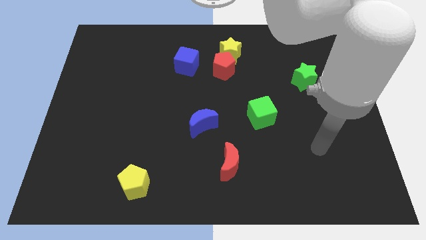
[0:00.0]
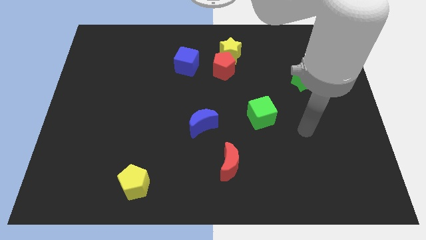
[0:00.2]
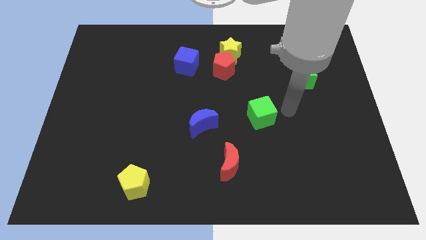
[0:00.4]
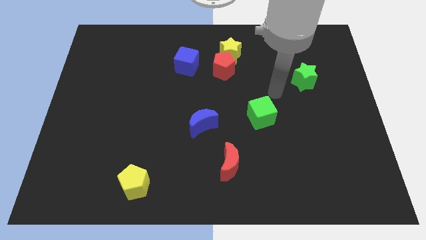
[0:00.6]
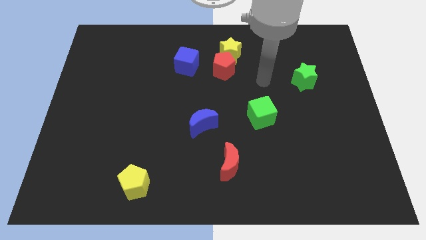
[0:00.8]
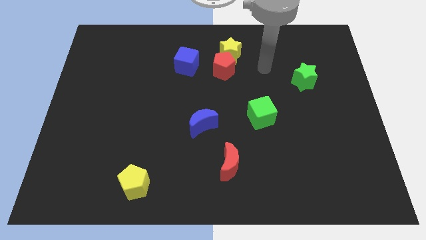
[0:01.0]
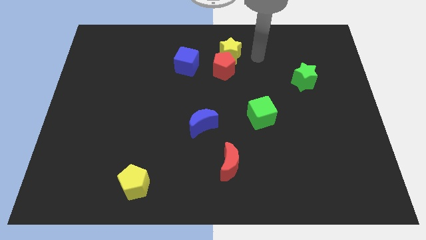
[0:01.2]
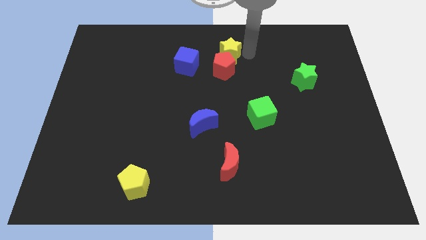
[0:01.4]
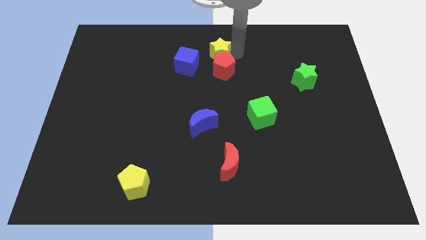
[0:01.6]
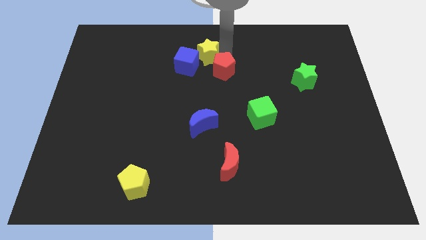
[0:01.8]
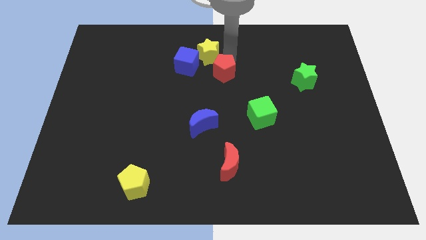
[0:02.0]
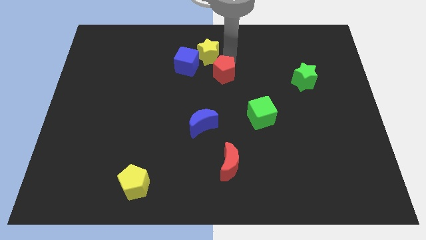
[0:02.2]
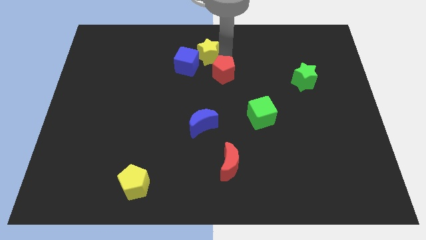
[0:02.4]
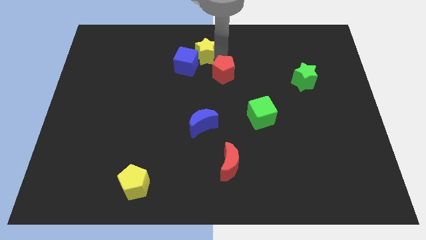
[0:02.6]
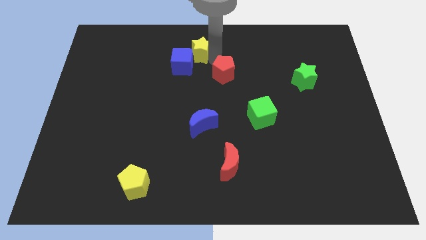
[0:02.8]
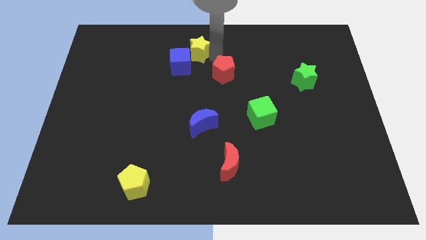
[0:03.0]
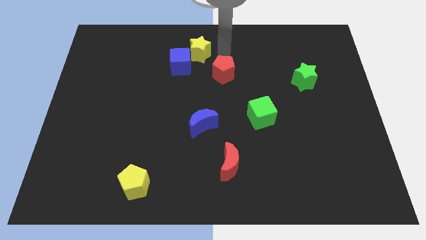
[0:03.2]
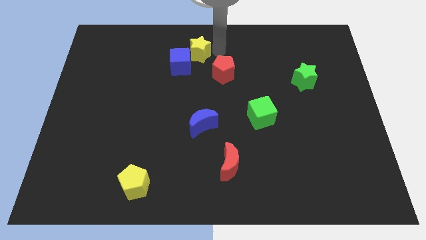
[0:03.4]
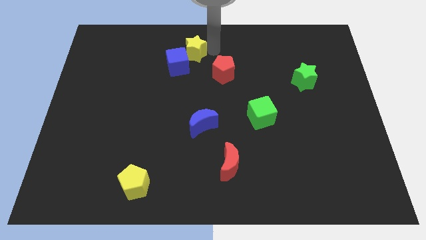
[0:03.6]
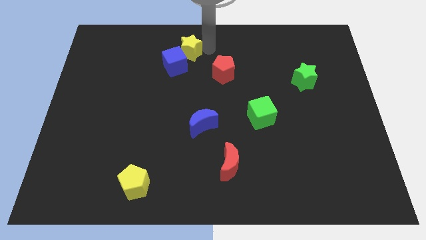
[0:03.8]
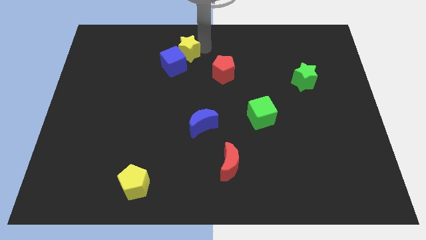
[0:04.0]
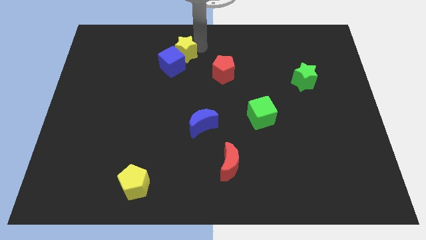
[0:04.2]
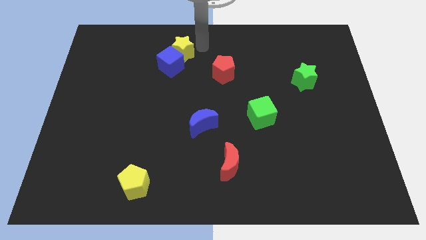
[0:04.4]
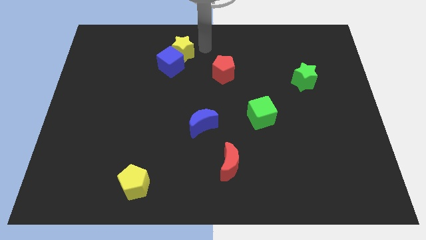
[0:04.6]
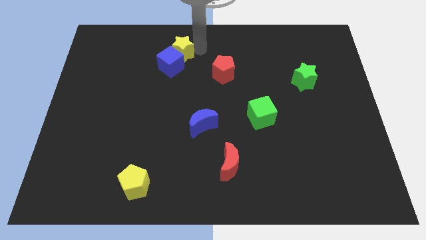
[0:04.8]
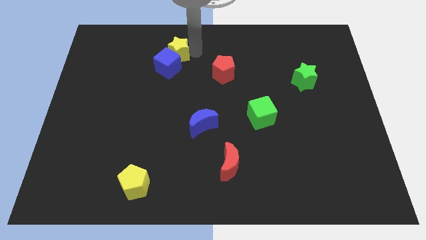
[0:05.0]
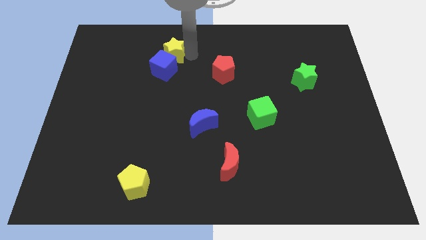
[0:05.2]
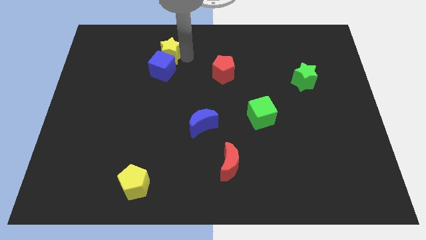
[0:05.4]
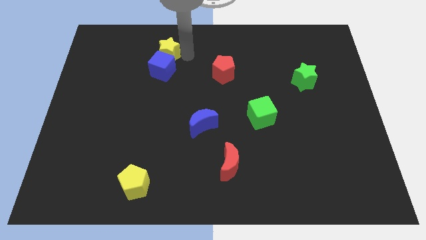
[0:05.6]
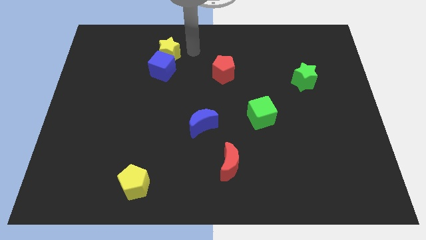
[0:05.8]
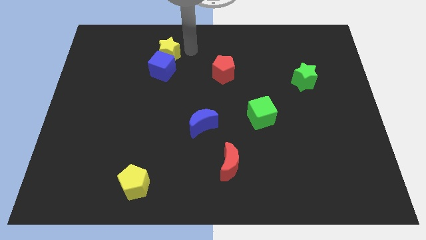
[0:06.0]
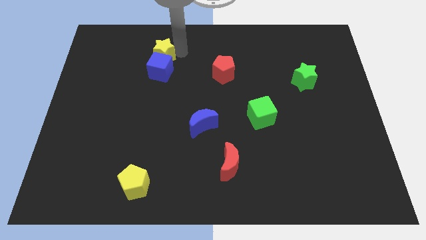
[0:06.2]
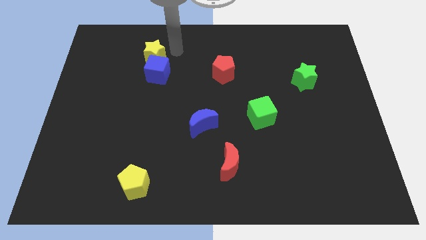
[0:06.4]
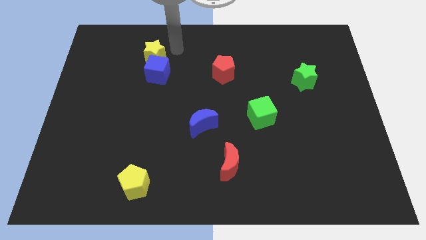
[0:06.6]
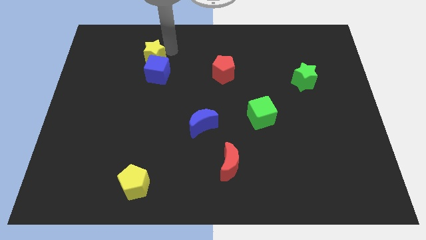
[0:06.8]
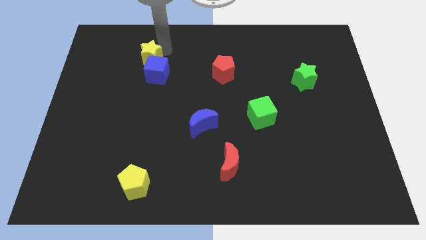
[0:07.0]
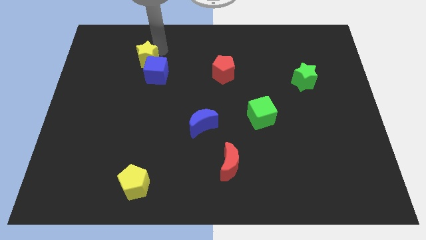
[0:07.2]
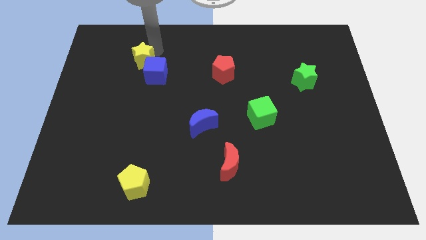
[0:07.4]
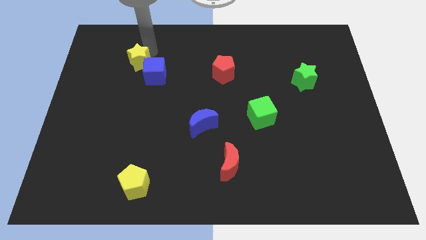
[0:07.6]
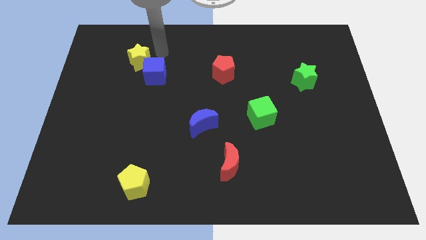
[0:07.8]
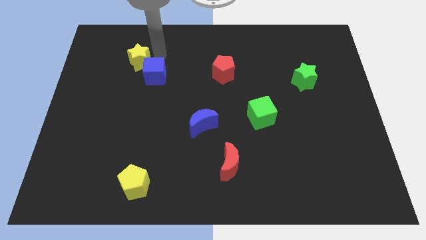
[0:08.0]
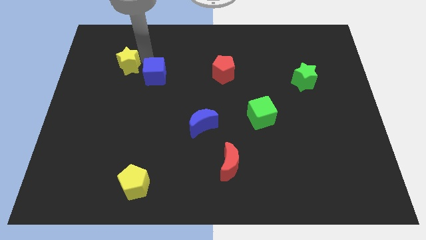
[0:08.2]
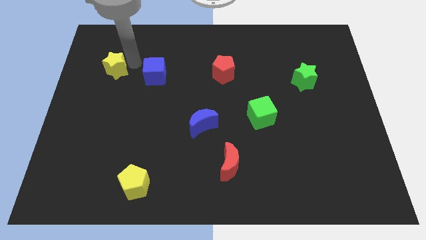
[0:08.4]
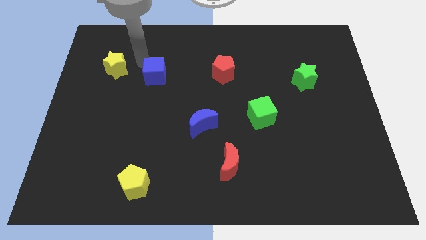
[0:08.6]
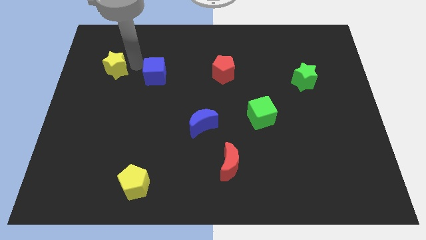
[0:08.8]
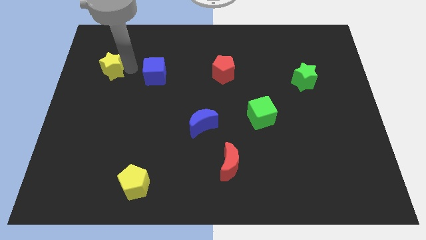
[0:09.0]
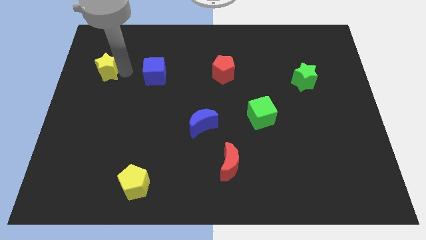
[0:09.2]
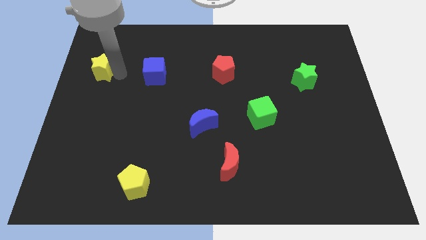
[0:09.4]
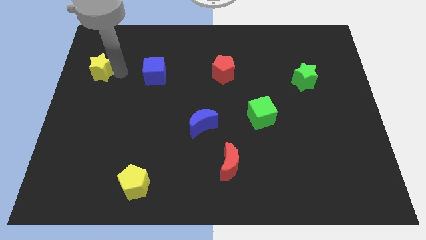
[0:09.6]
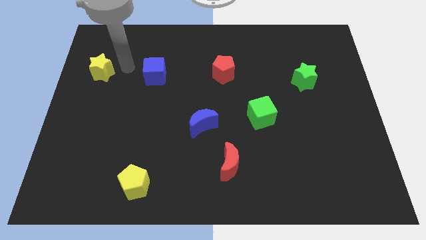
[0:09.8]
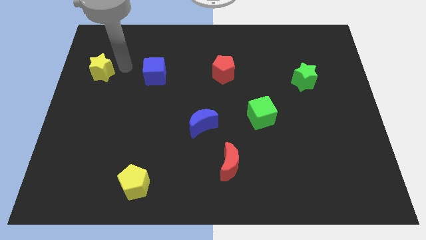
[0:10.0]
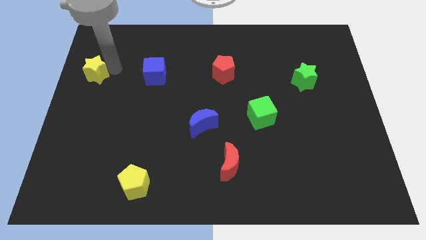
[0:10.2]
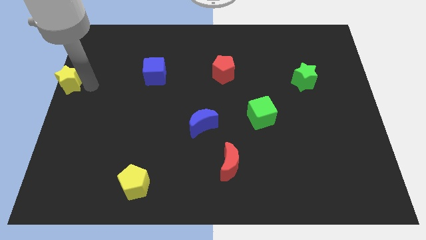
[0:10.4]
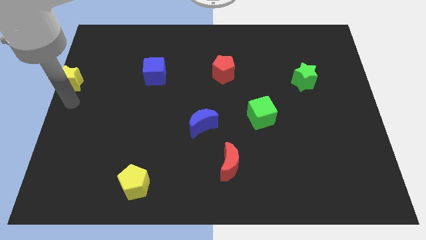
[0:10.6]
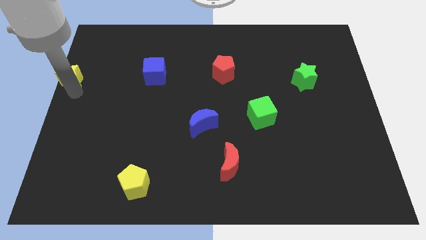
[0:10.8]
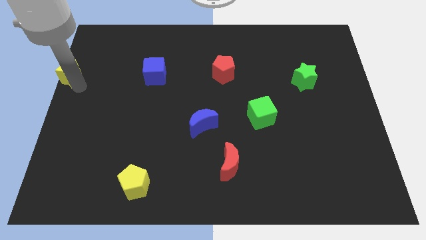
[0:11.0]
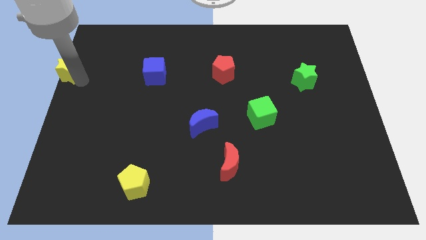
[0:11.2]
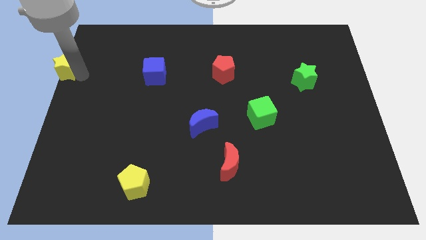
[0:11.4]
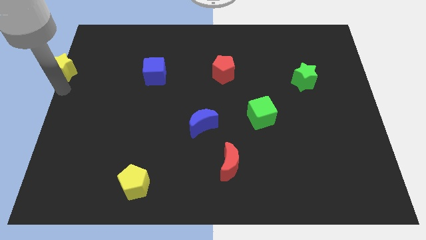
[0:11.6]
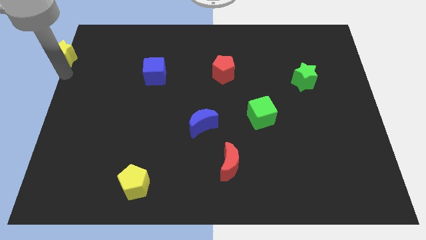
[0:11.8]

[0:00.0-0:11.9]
slide the yellow star to the top left of the board

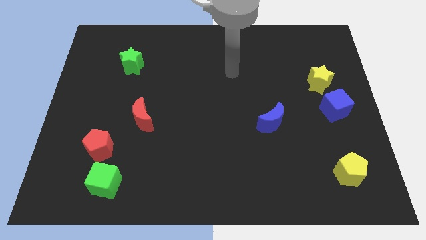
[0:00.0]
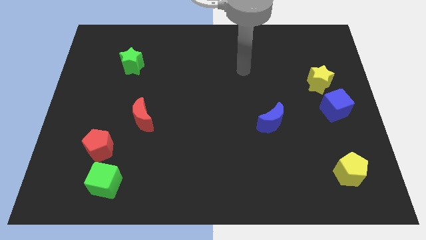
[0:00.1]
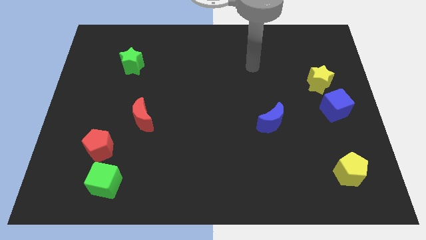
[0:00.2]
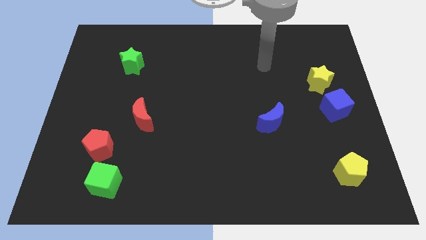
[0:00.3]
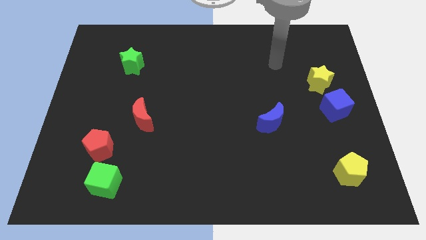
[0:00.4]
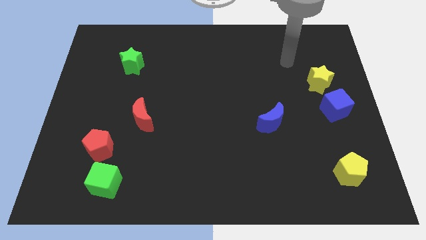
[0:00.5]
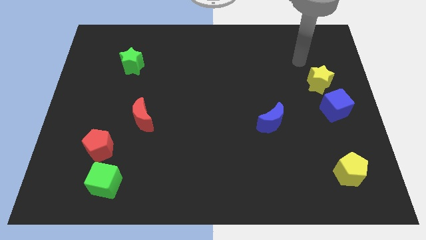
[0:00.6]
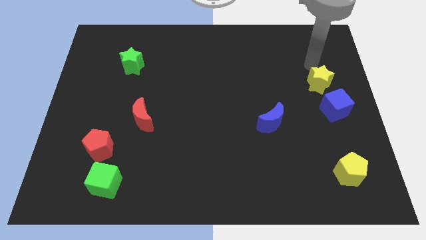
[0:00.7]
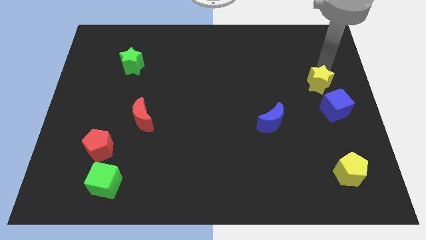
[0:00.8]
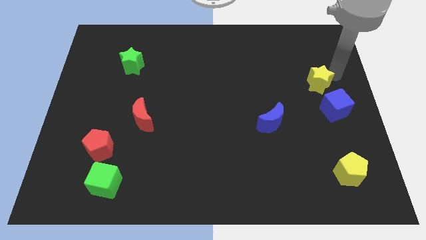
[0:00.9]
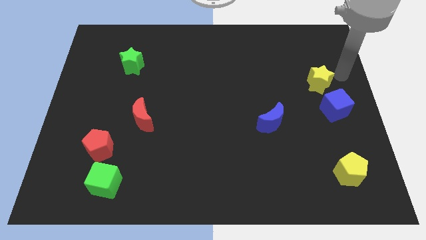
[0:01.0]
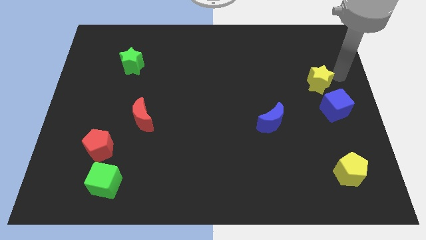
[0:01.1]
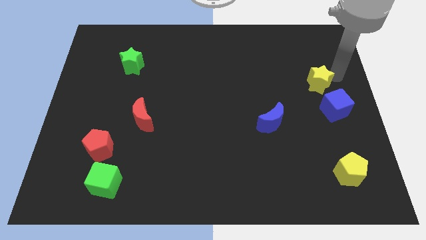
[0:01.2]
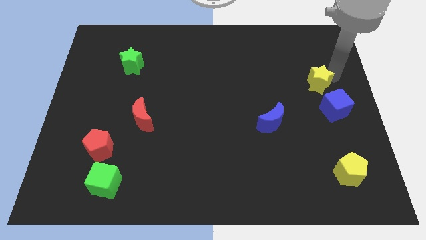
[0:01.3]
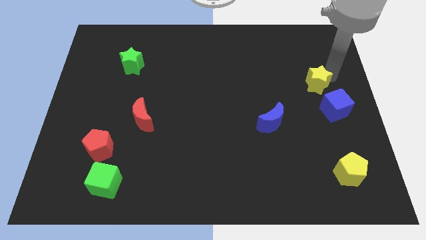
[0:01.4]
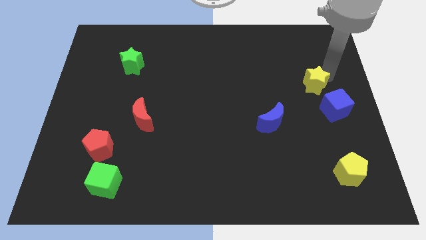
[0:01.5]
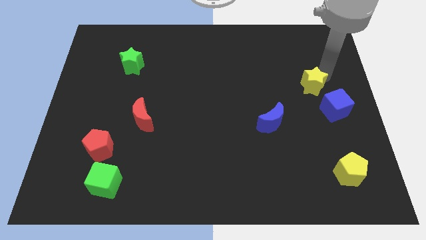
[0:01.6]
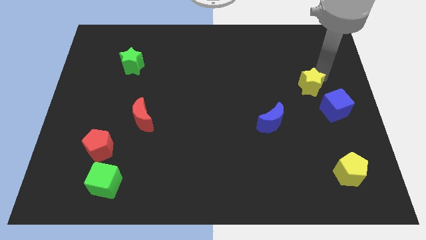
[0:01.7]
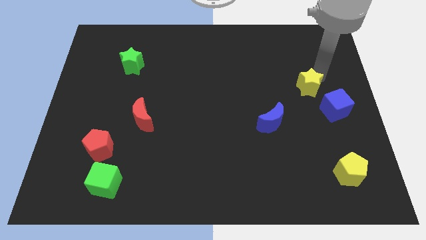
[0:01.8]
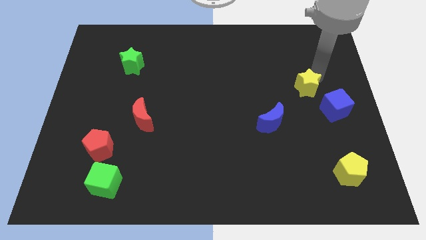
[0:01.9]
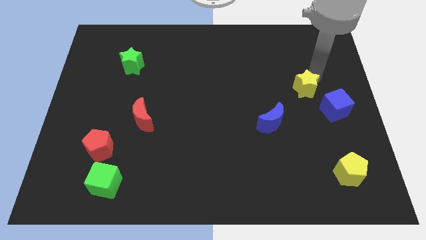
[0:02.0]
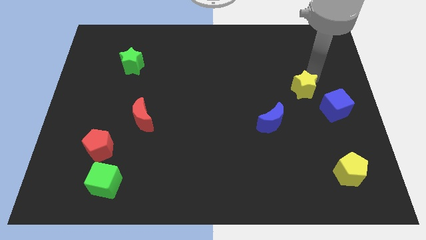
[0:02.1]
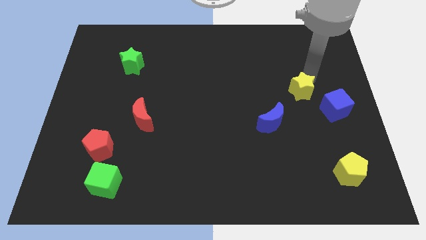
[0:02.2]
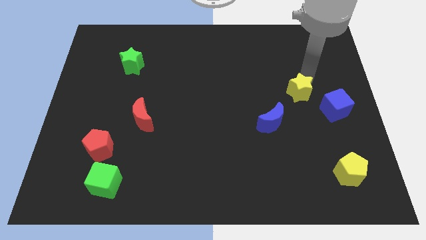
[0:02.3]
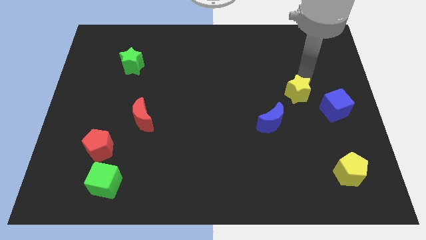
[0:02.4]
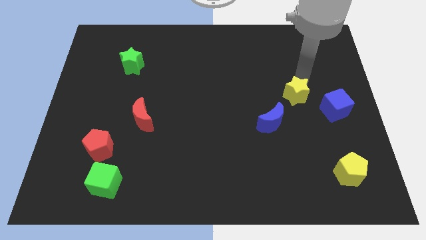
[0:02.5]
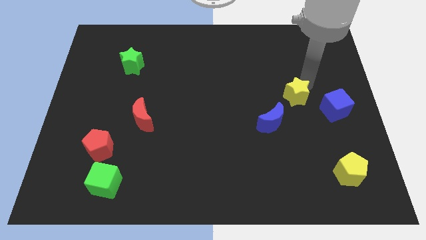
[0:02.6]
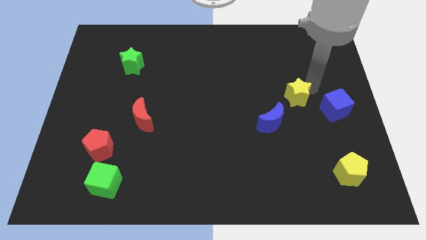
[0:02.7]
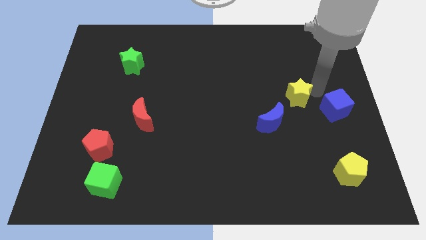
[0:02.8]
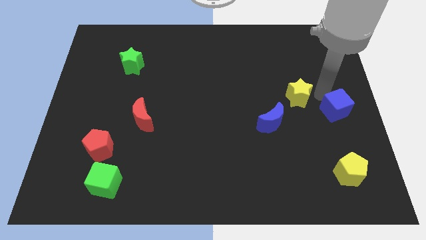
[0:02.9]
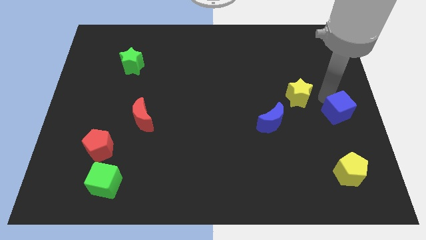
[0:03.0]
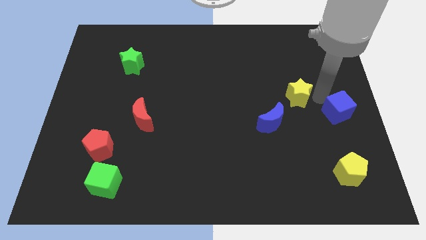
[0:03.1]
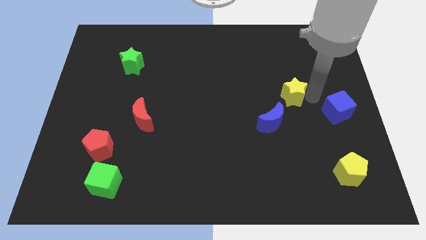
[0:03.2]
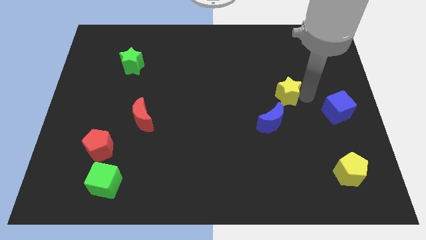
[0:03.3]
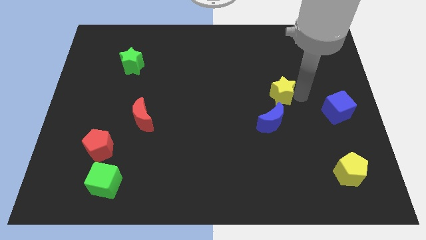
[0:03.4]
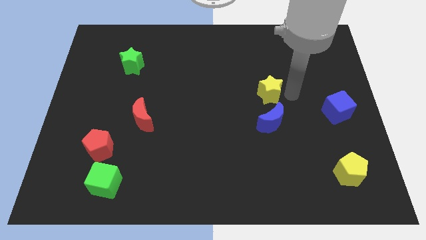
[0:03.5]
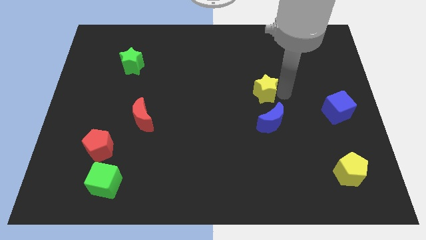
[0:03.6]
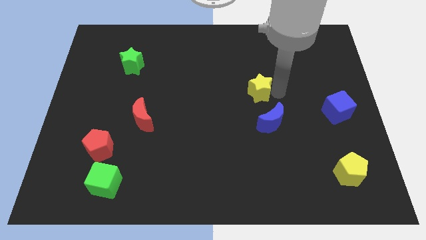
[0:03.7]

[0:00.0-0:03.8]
move the yellow star to the middle of the board
